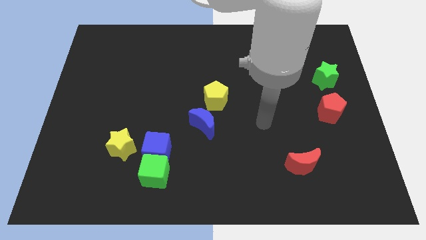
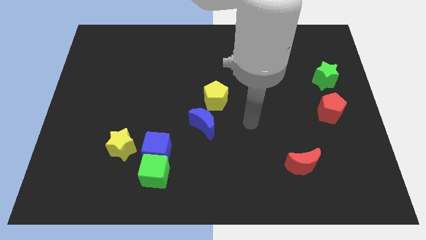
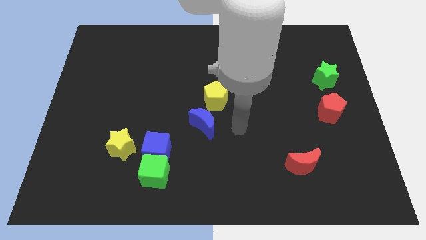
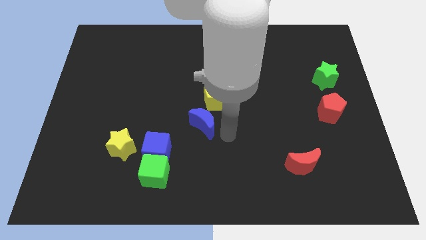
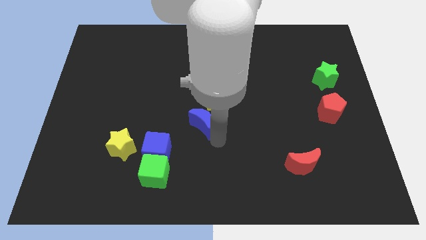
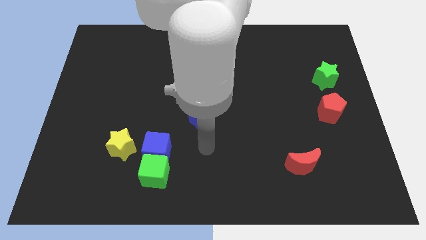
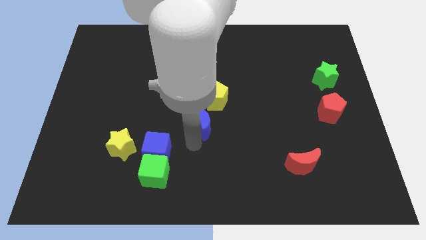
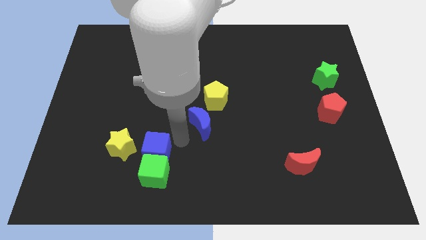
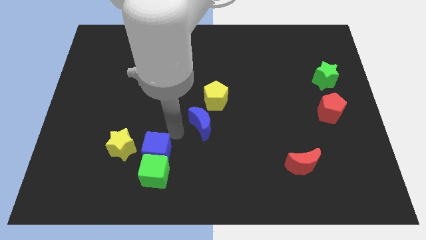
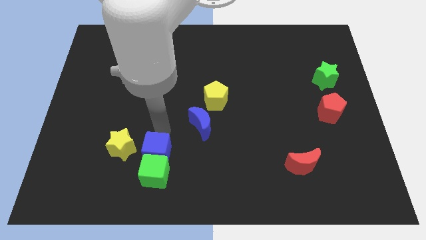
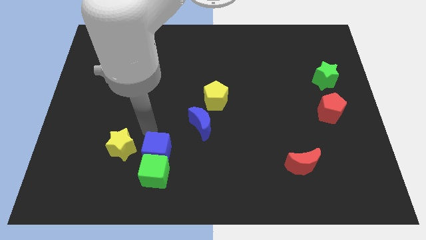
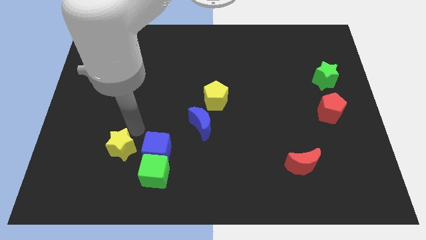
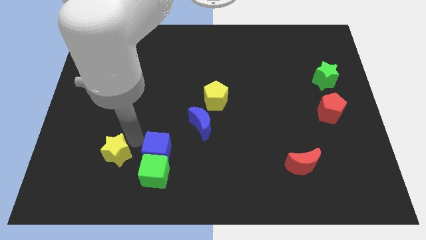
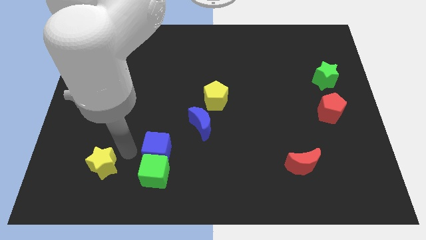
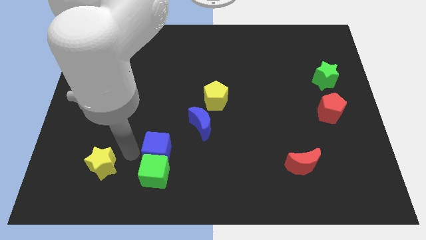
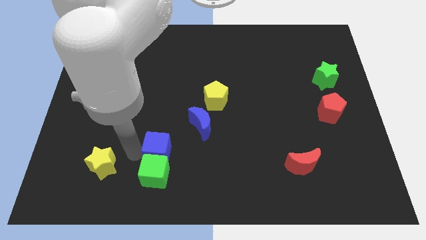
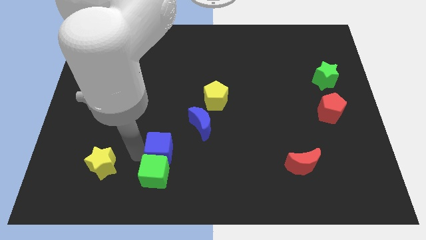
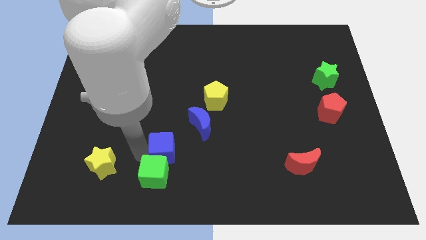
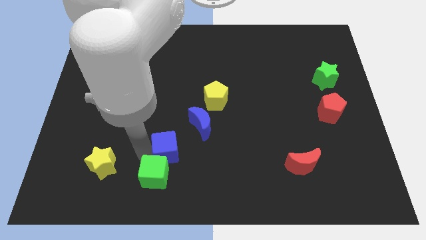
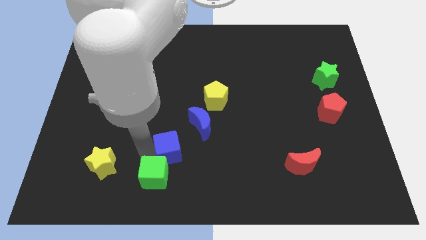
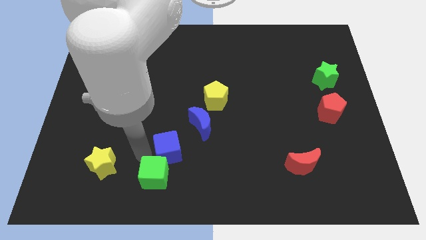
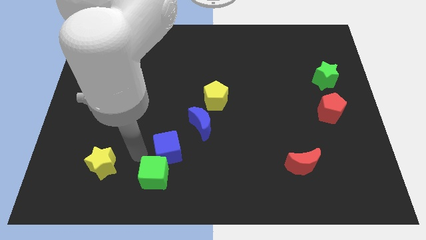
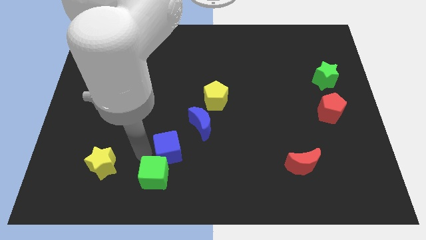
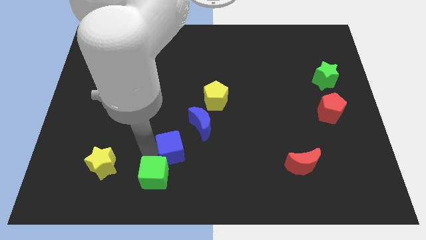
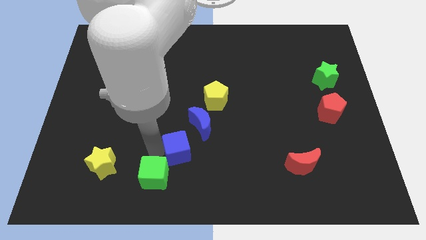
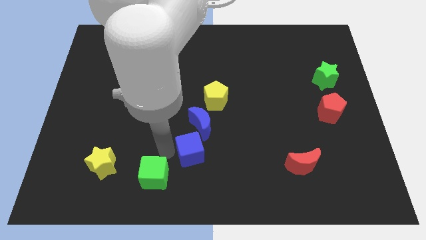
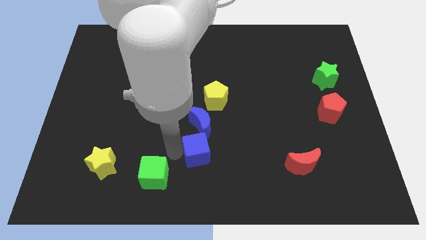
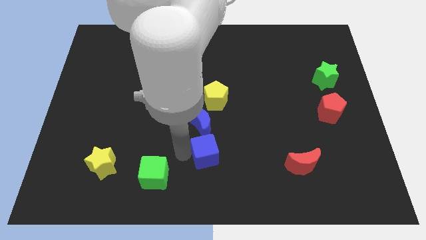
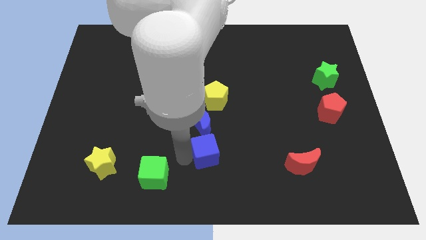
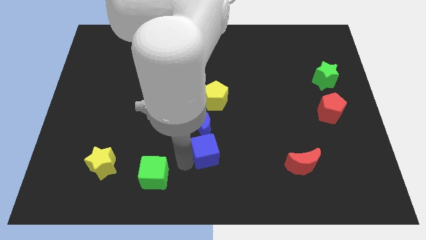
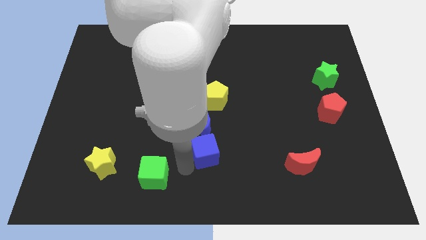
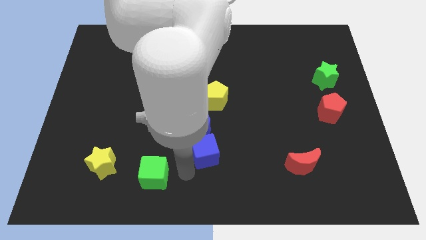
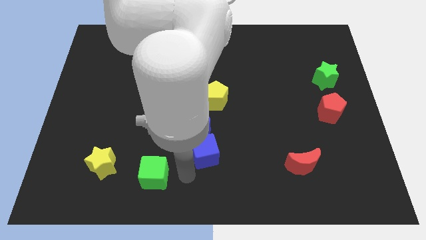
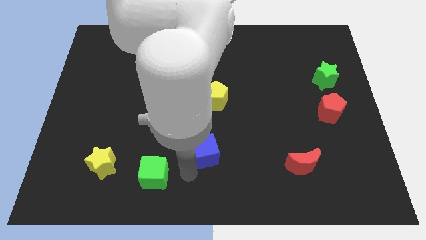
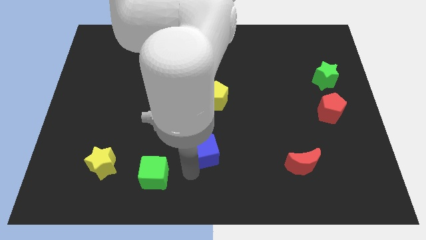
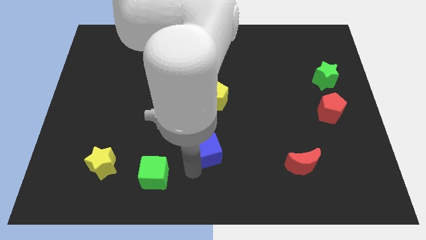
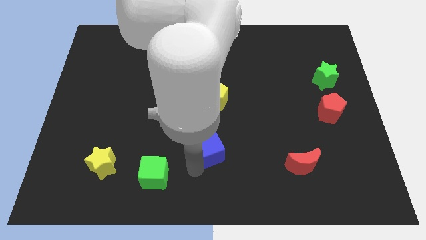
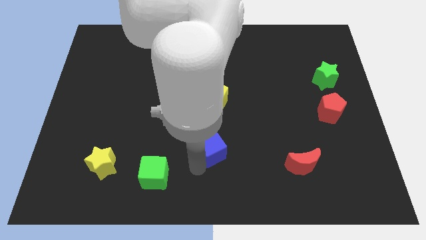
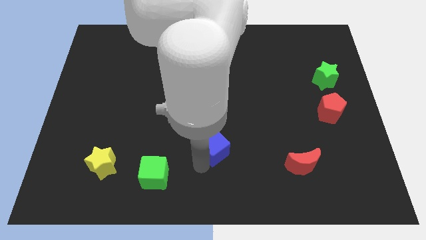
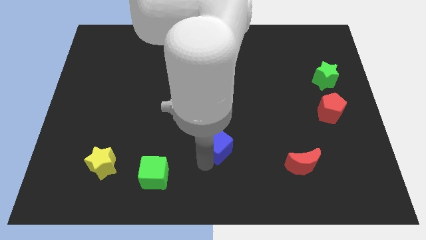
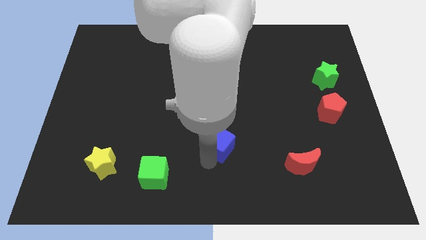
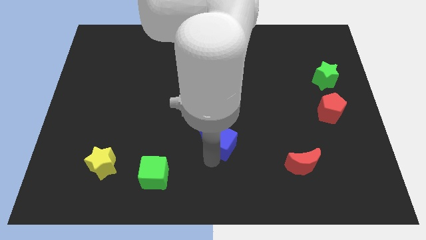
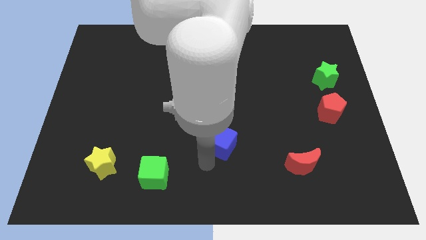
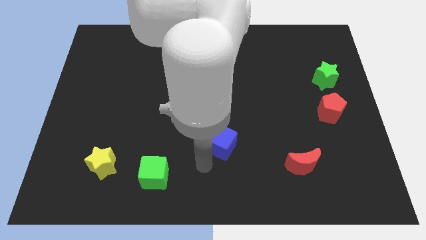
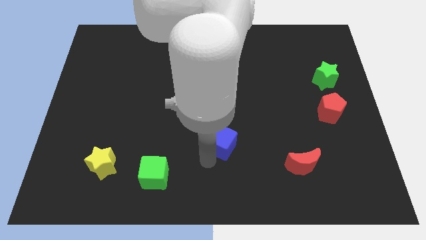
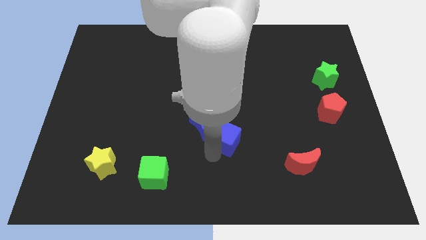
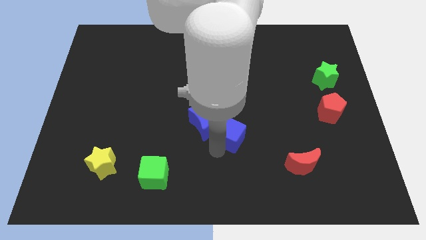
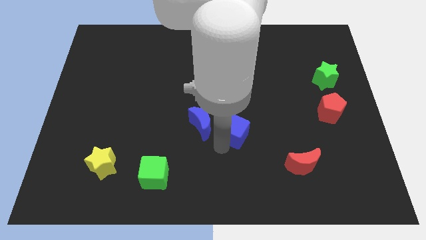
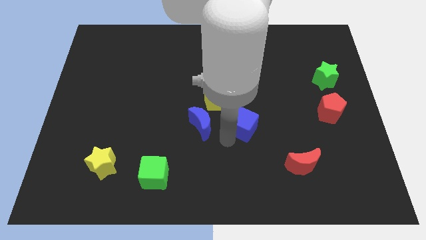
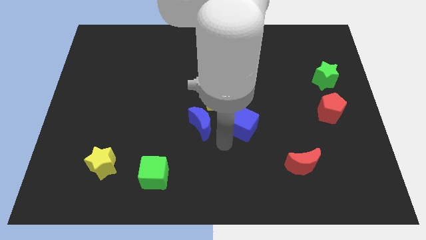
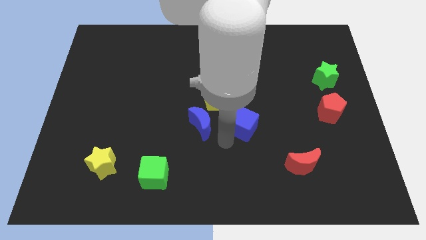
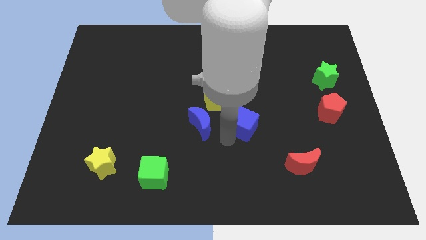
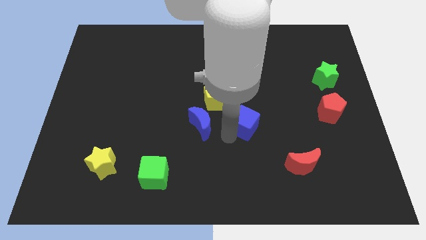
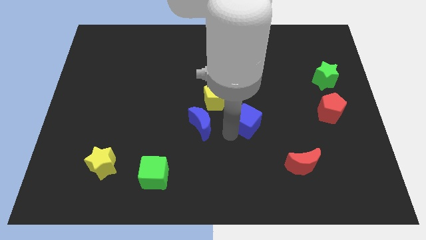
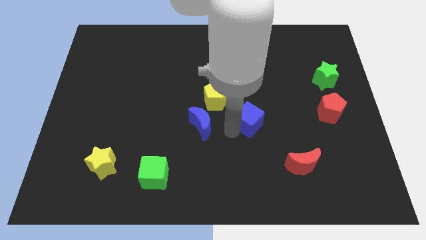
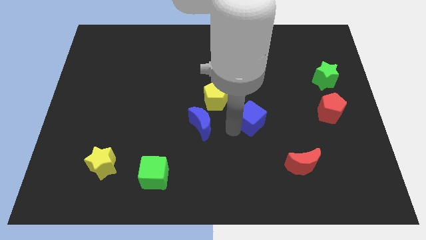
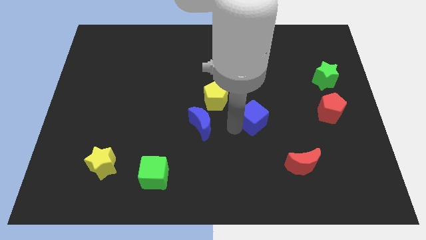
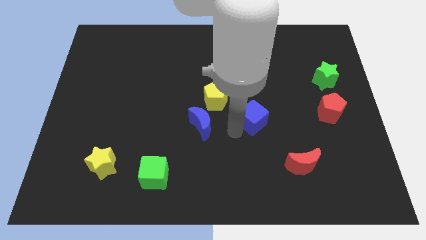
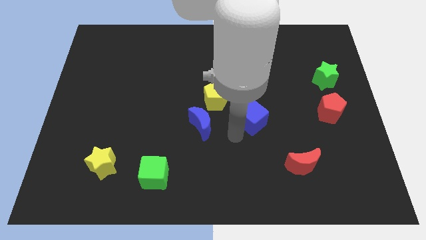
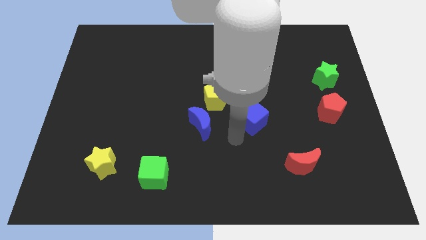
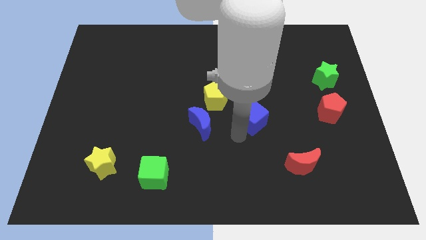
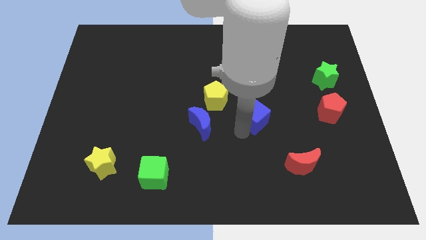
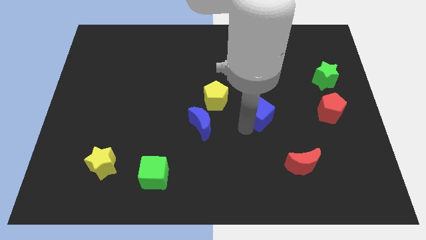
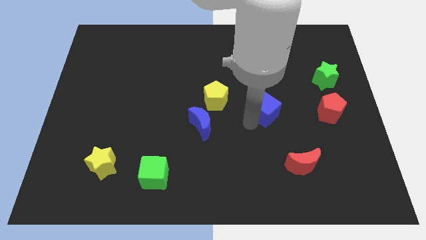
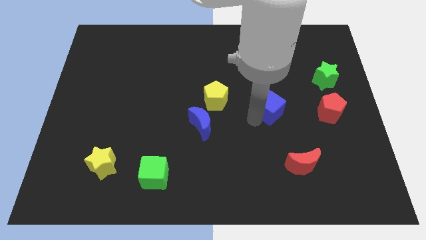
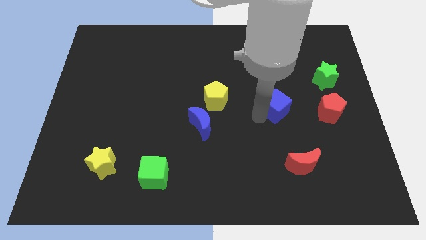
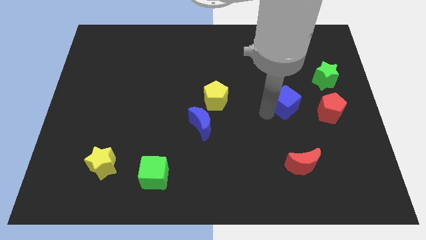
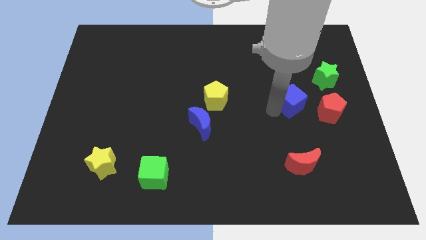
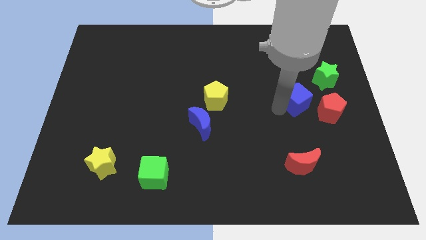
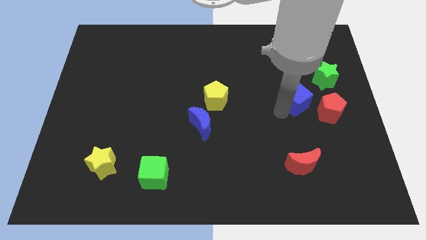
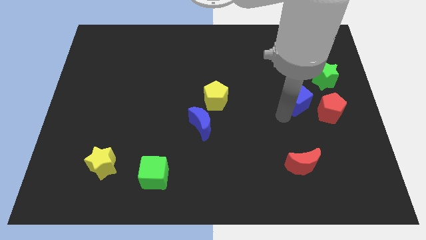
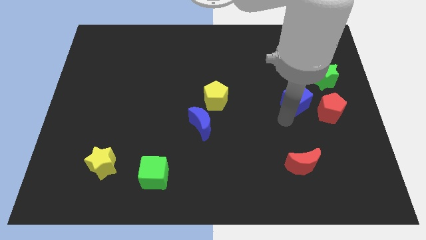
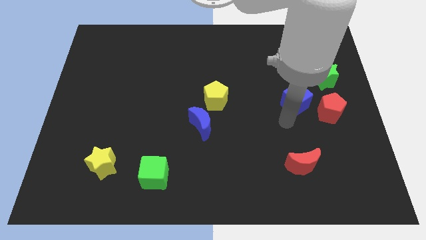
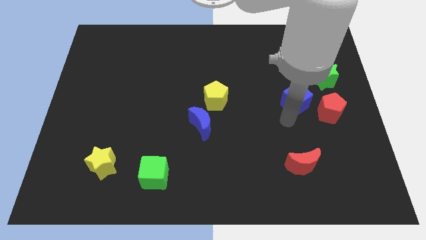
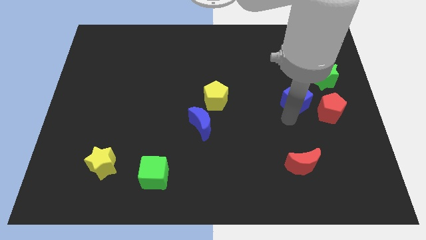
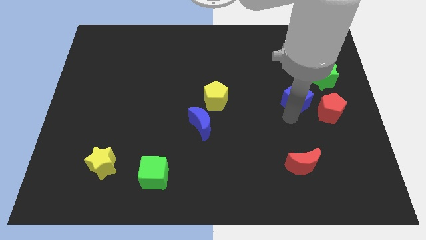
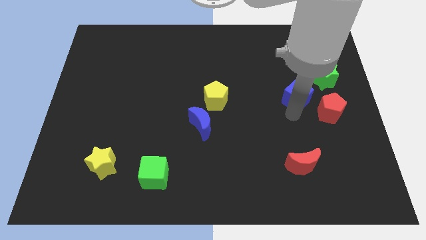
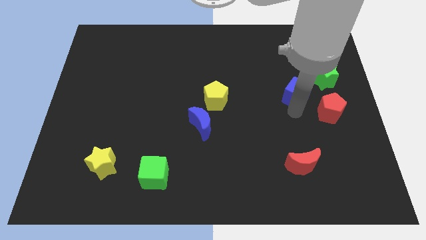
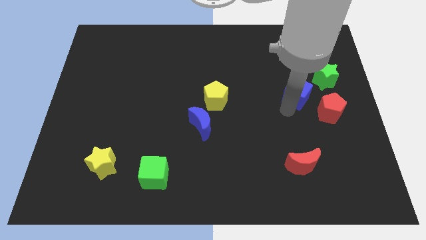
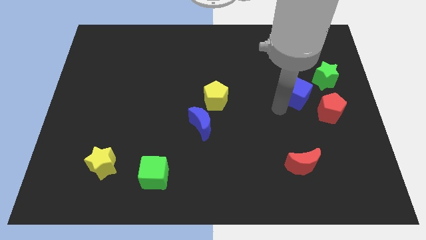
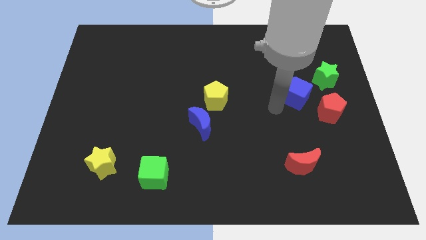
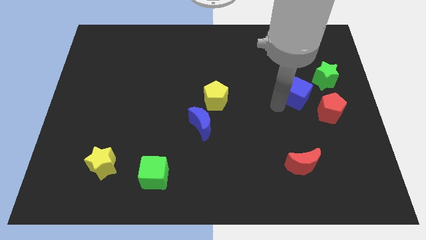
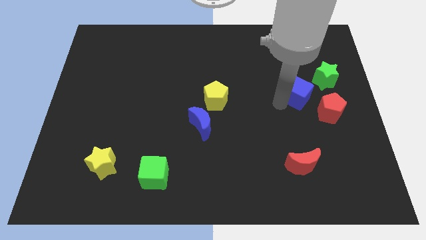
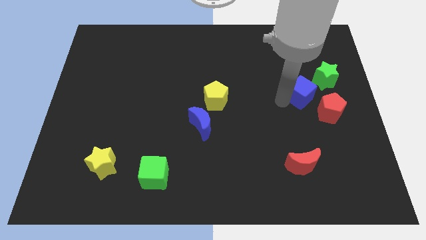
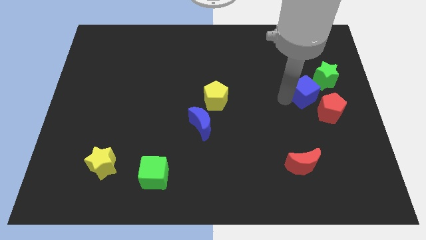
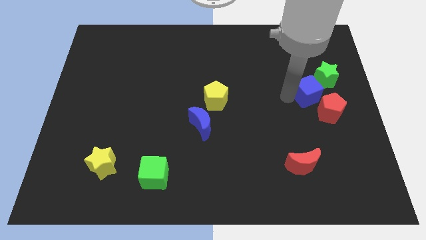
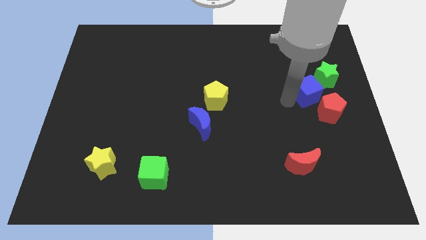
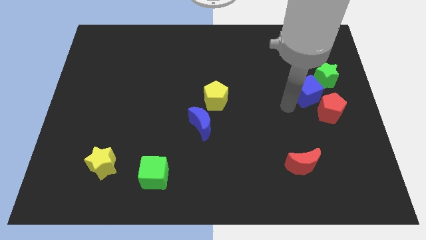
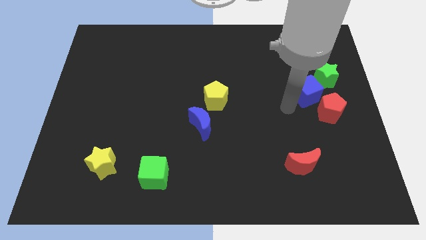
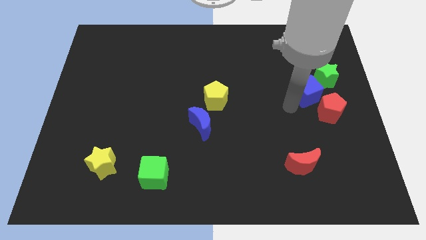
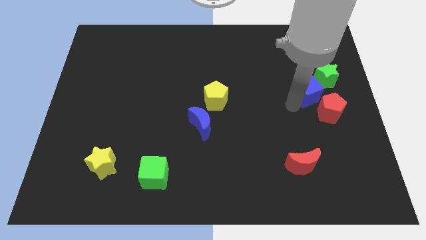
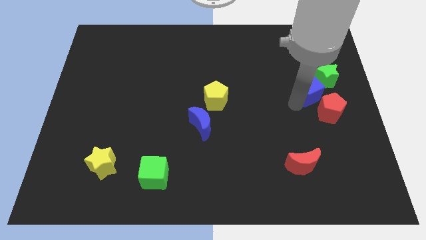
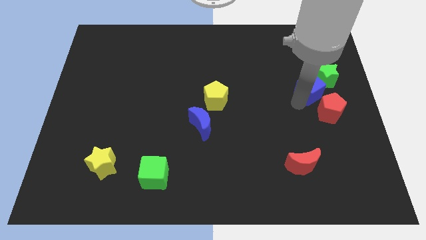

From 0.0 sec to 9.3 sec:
slide the blue cube to the green star
